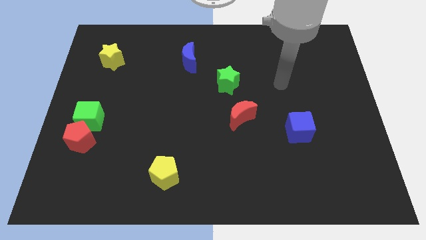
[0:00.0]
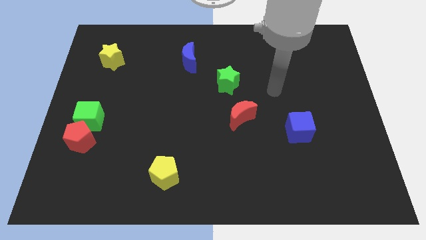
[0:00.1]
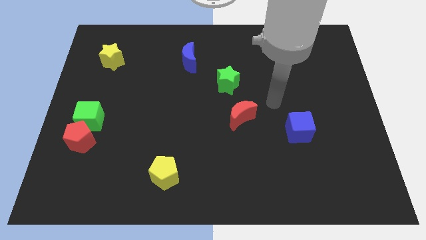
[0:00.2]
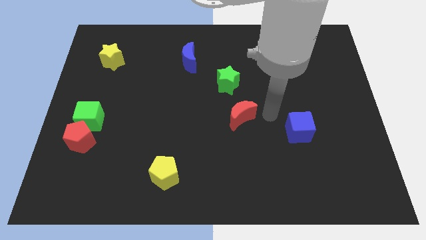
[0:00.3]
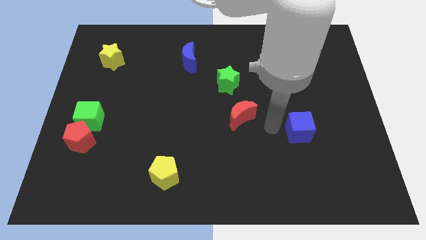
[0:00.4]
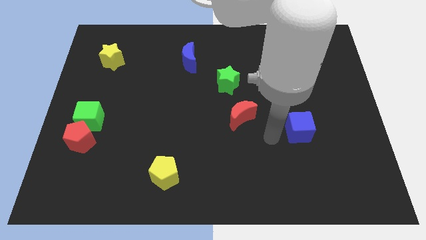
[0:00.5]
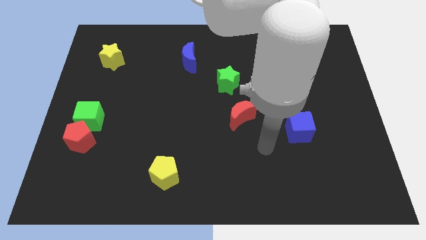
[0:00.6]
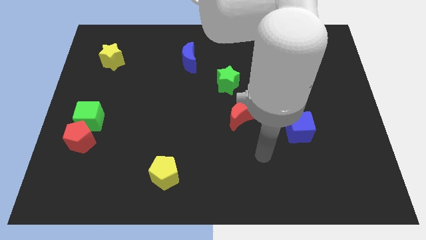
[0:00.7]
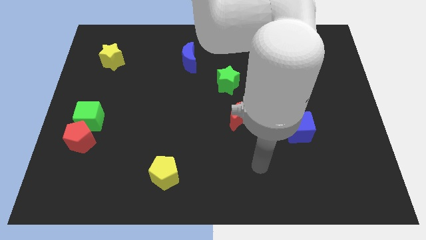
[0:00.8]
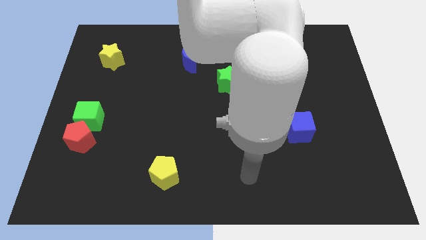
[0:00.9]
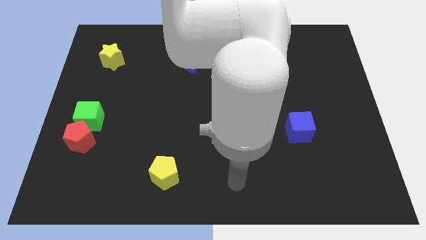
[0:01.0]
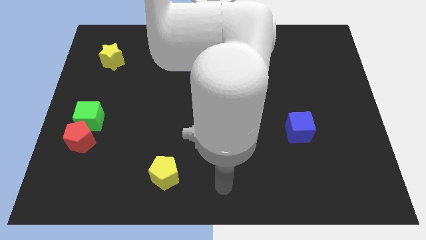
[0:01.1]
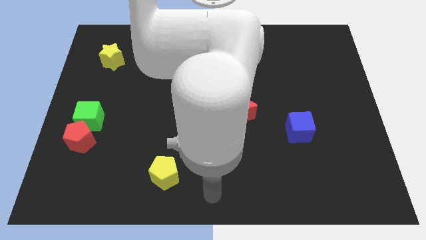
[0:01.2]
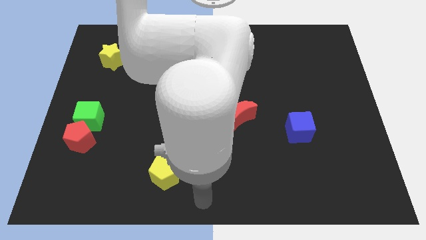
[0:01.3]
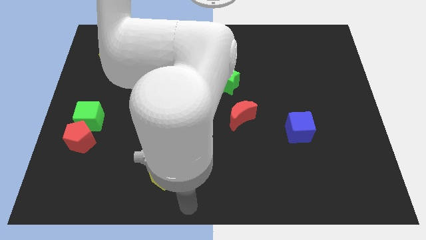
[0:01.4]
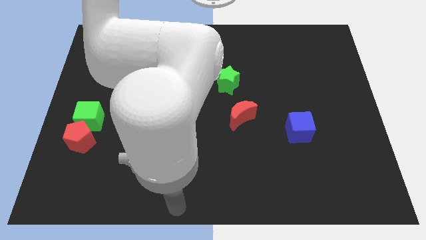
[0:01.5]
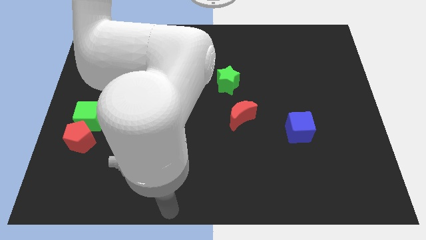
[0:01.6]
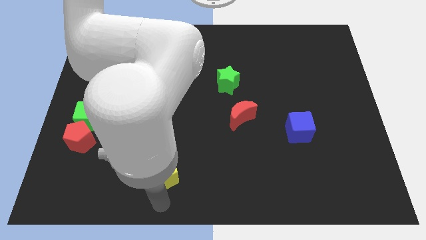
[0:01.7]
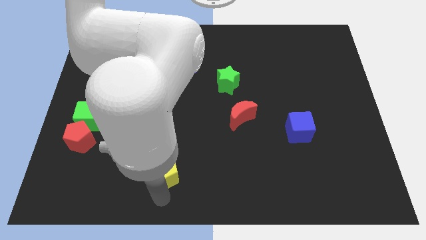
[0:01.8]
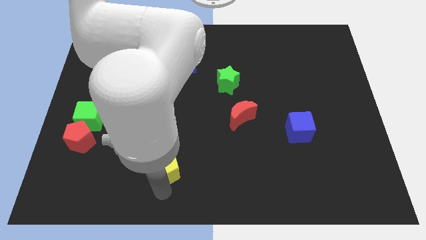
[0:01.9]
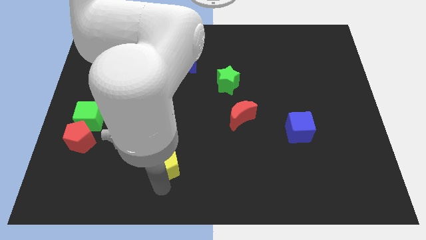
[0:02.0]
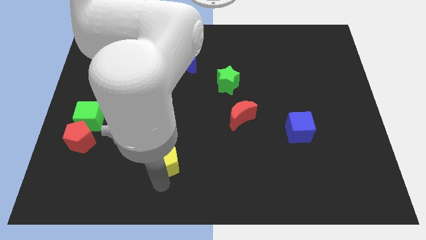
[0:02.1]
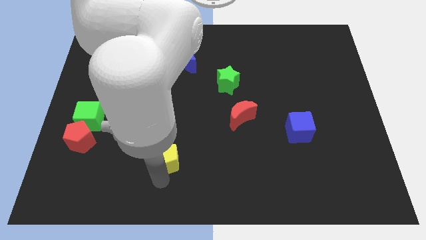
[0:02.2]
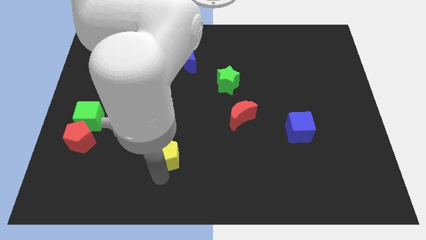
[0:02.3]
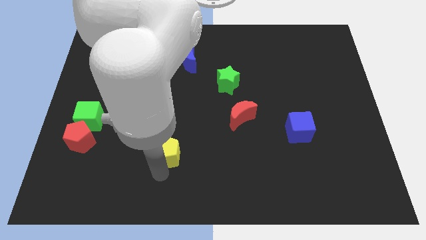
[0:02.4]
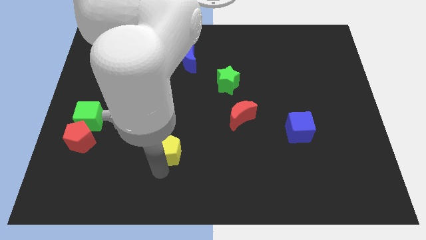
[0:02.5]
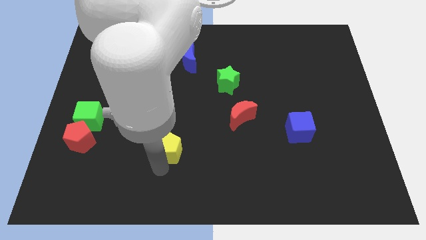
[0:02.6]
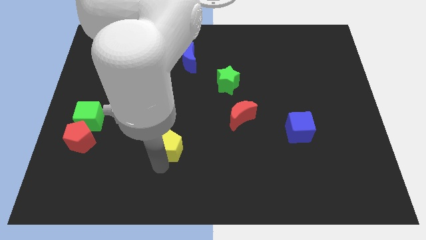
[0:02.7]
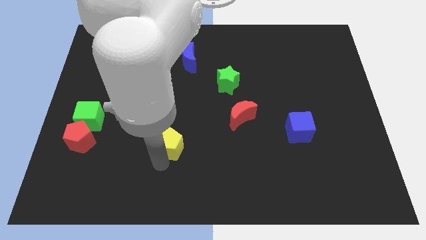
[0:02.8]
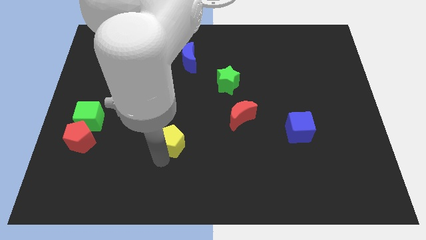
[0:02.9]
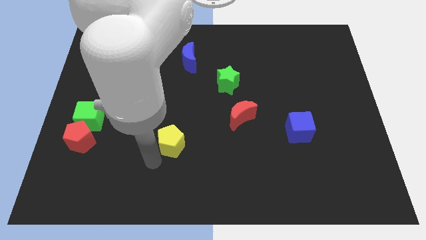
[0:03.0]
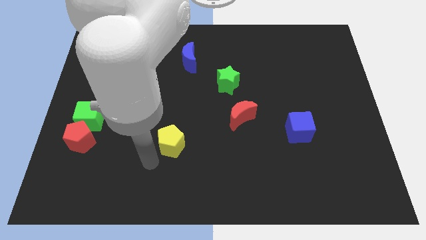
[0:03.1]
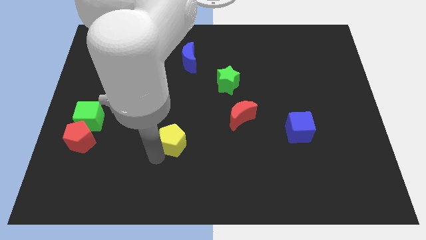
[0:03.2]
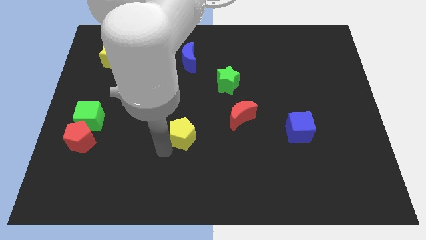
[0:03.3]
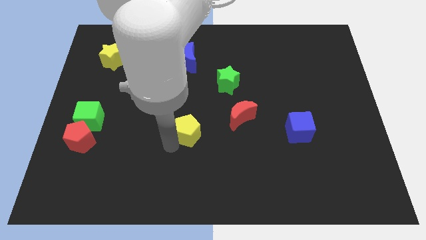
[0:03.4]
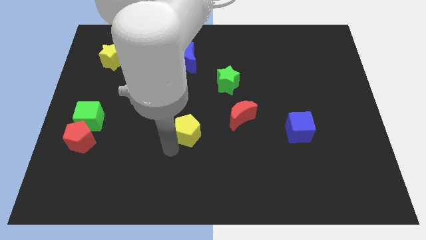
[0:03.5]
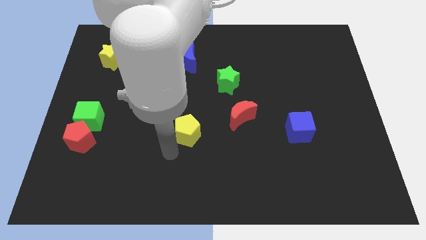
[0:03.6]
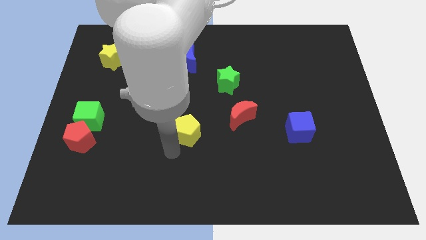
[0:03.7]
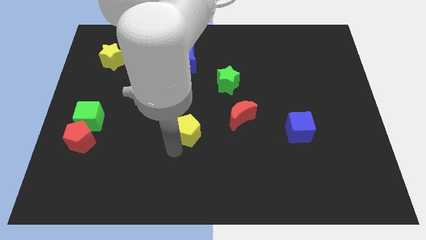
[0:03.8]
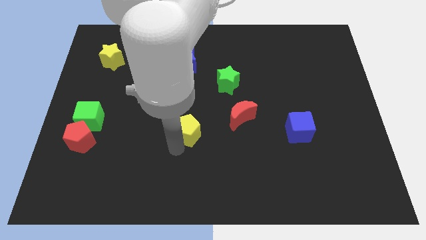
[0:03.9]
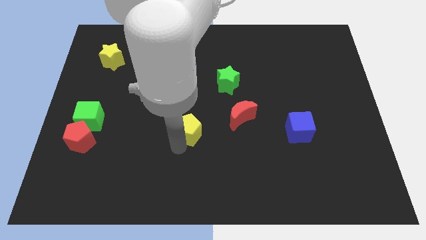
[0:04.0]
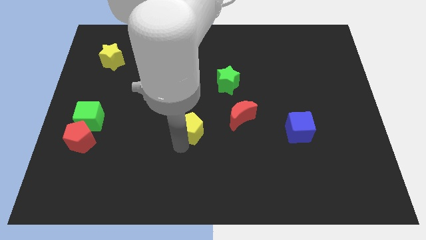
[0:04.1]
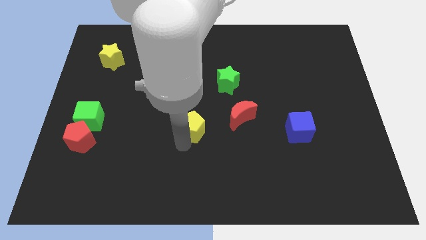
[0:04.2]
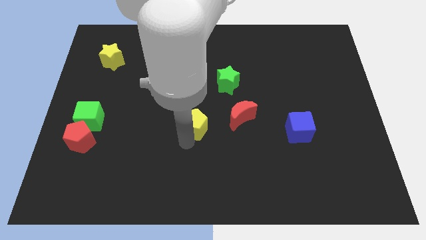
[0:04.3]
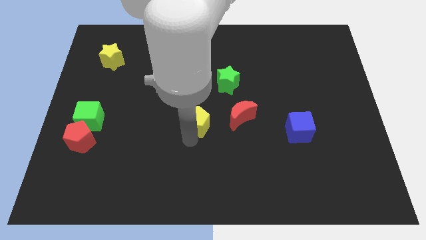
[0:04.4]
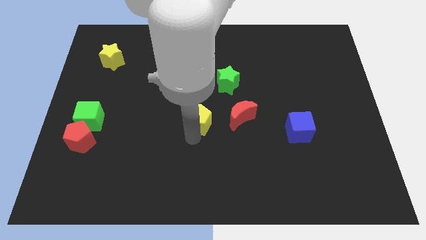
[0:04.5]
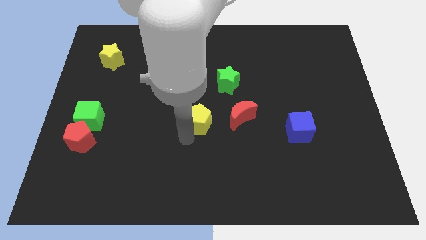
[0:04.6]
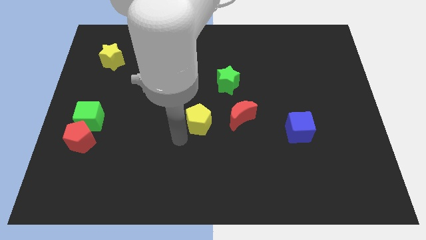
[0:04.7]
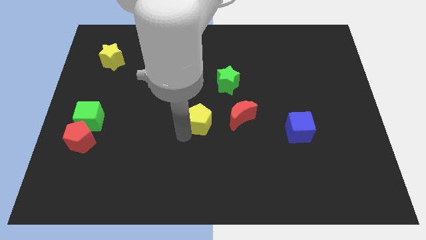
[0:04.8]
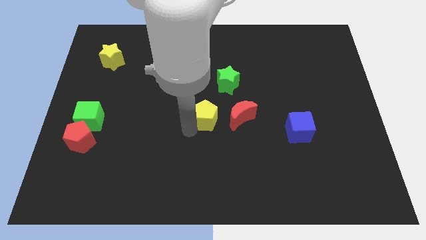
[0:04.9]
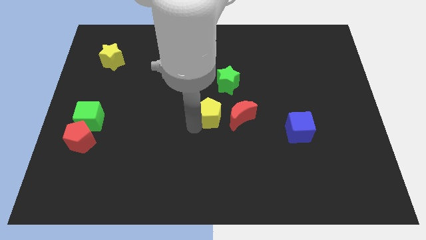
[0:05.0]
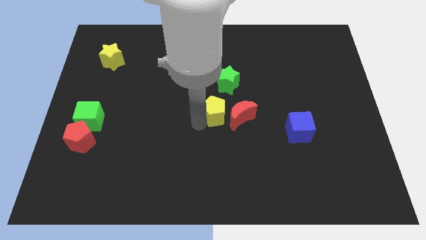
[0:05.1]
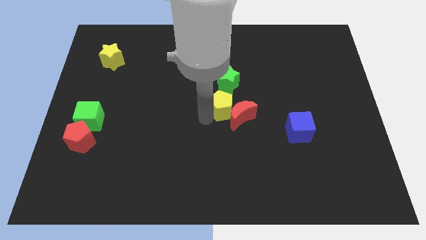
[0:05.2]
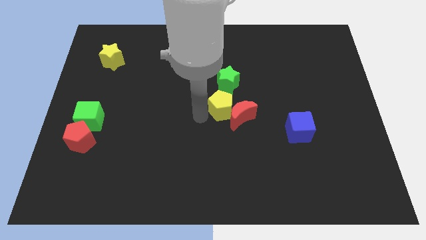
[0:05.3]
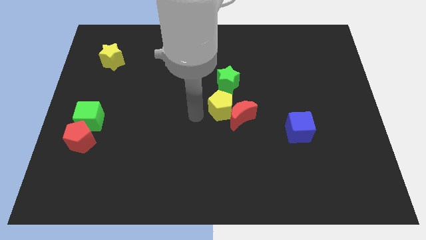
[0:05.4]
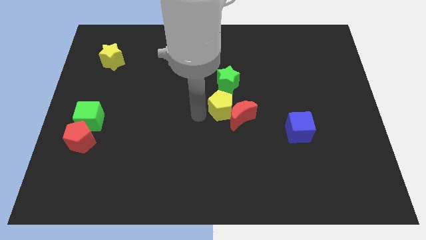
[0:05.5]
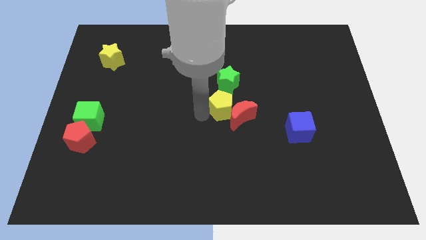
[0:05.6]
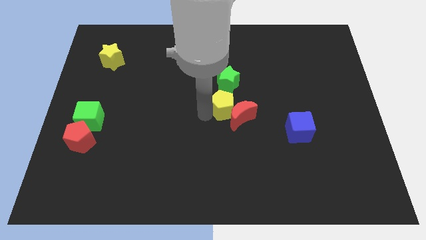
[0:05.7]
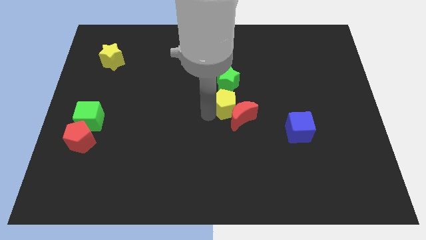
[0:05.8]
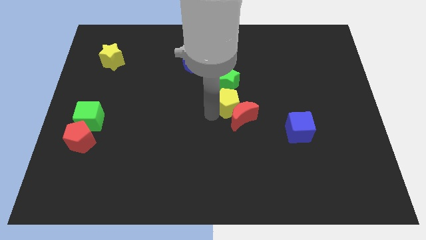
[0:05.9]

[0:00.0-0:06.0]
slide the yellow pentagon to the bottom right side of the green star

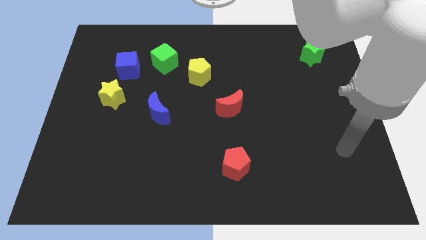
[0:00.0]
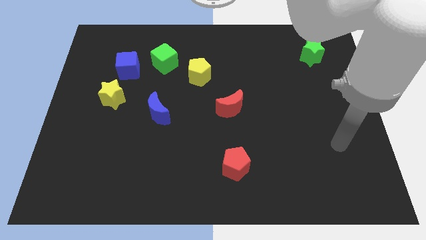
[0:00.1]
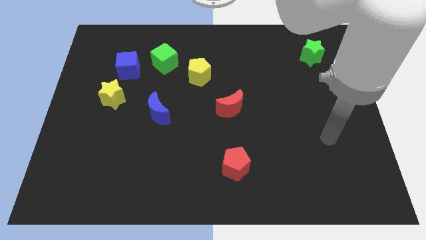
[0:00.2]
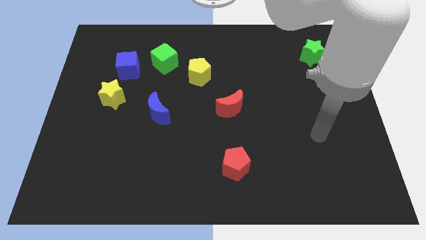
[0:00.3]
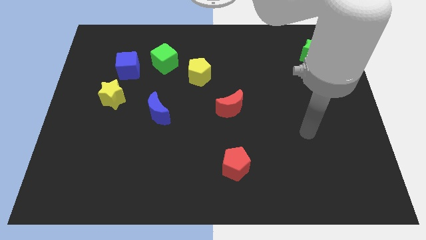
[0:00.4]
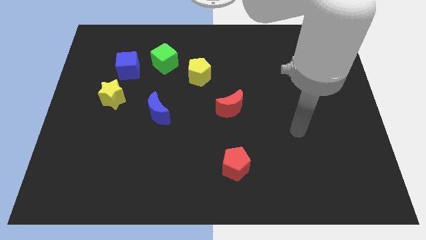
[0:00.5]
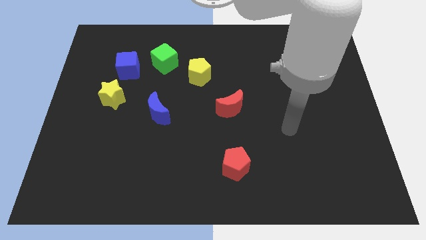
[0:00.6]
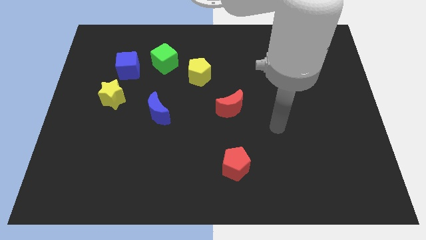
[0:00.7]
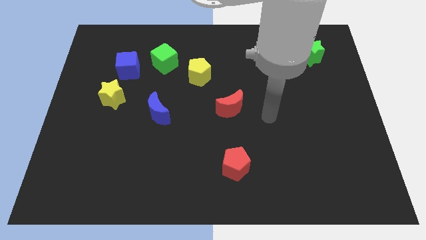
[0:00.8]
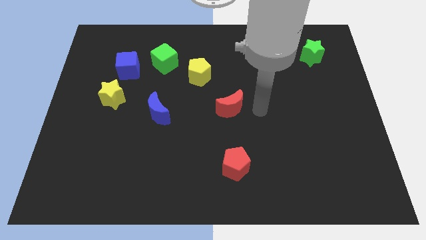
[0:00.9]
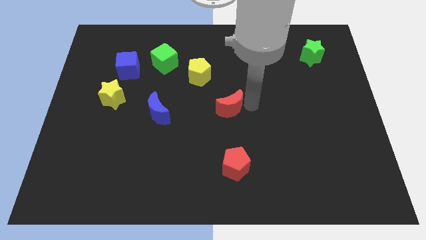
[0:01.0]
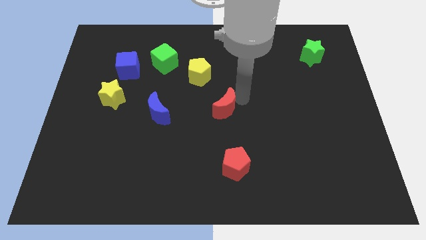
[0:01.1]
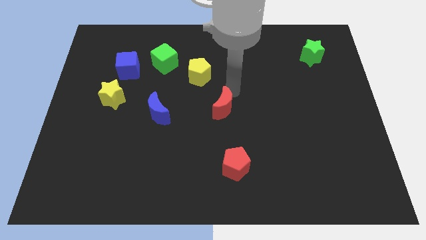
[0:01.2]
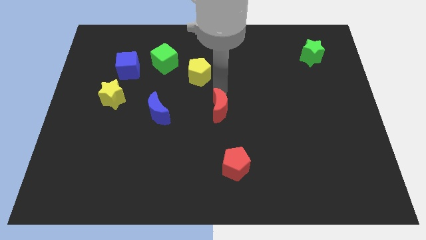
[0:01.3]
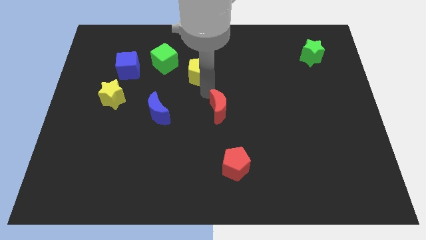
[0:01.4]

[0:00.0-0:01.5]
slide the yellow pentagon above the red moon
